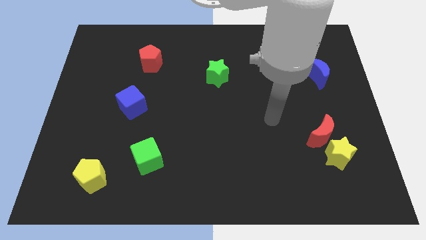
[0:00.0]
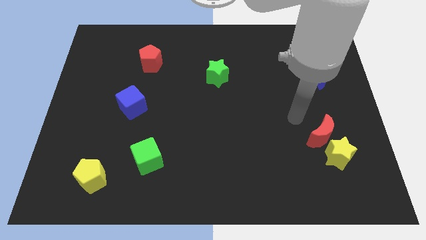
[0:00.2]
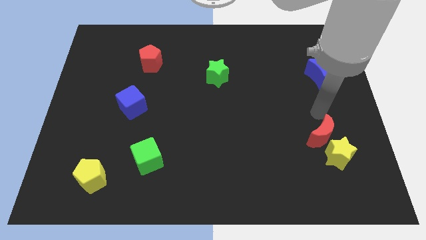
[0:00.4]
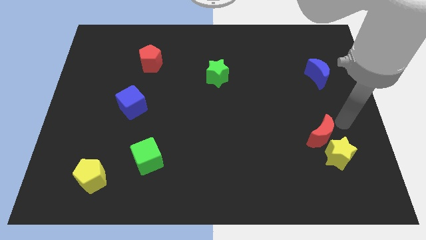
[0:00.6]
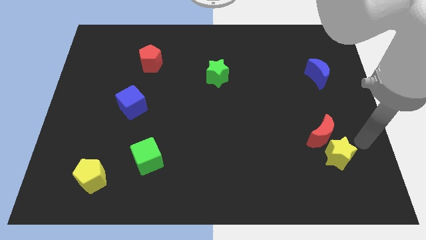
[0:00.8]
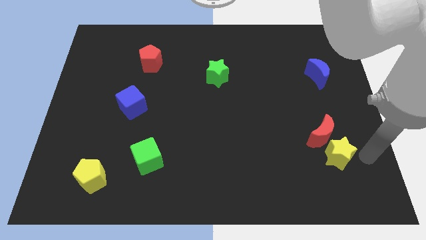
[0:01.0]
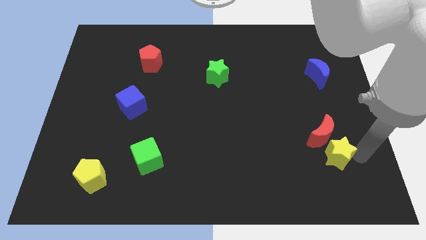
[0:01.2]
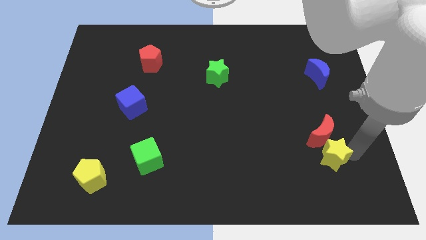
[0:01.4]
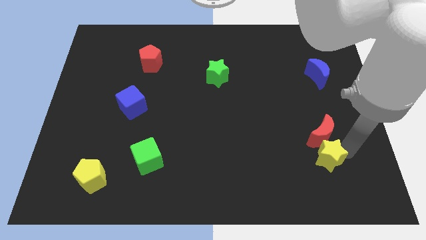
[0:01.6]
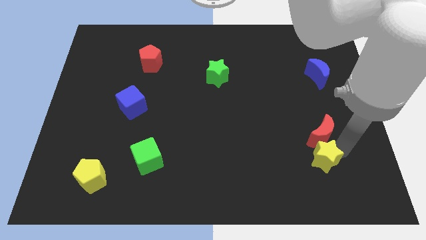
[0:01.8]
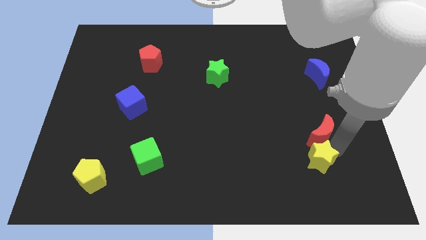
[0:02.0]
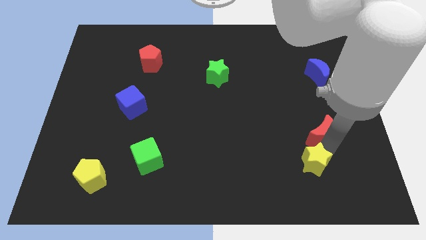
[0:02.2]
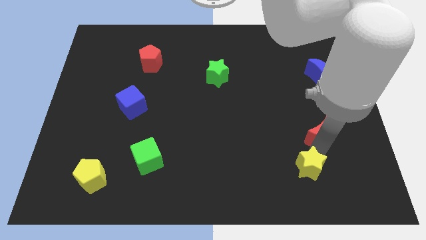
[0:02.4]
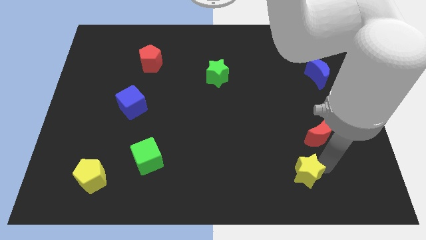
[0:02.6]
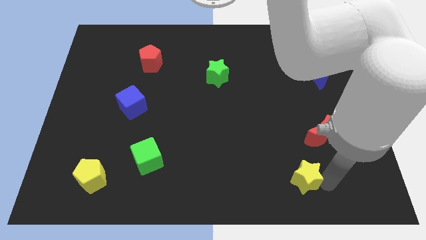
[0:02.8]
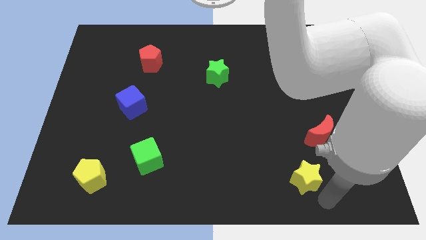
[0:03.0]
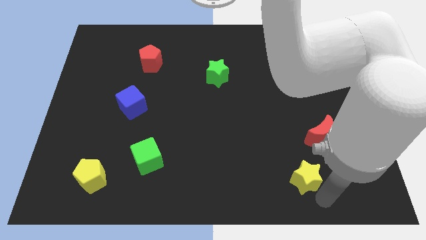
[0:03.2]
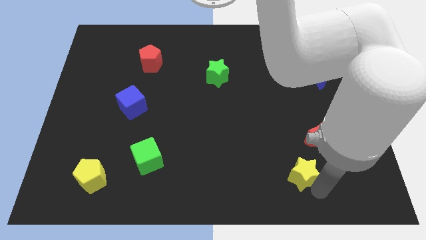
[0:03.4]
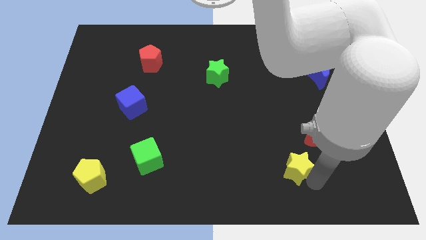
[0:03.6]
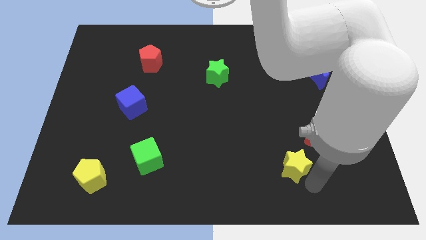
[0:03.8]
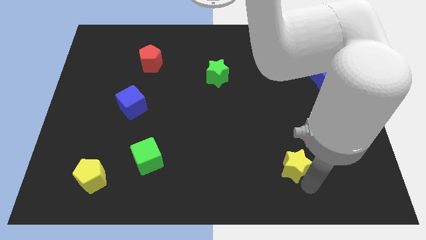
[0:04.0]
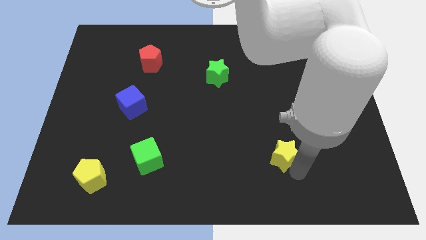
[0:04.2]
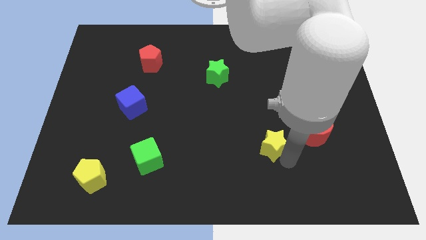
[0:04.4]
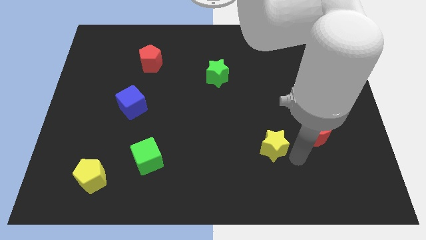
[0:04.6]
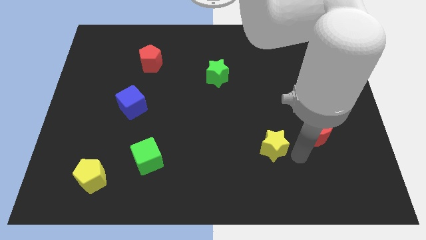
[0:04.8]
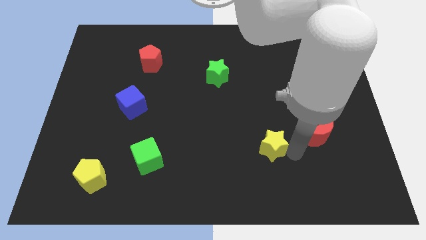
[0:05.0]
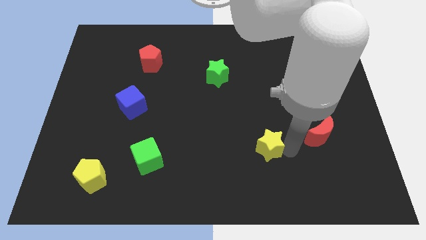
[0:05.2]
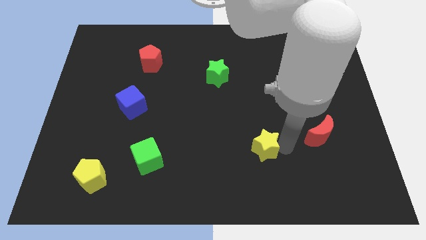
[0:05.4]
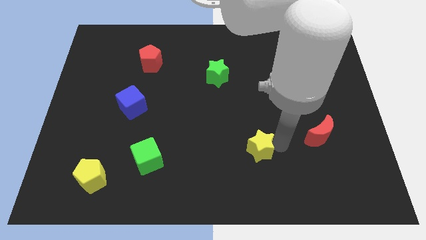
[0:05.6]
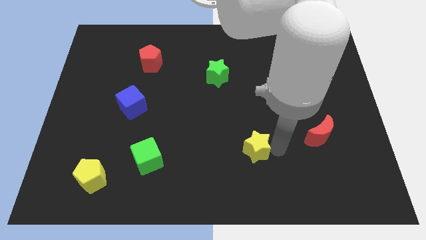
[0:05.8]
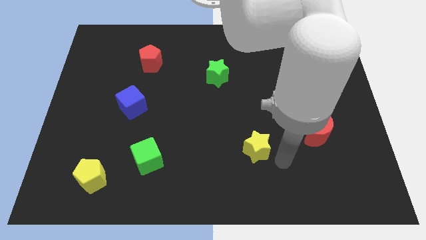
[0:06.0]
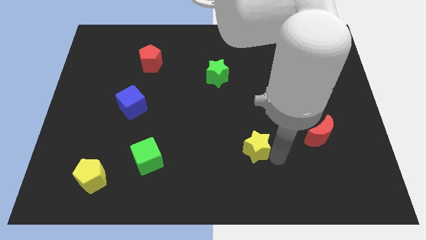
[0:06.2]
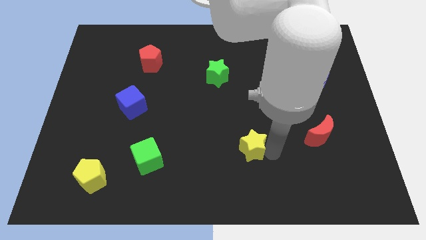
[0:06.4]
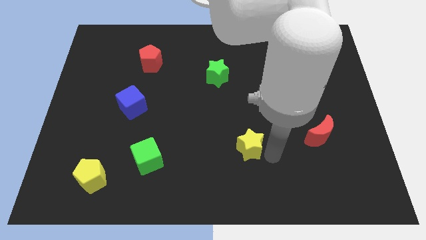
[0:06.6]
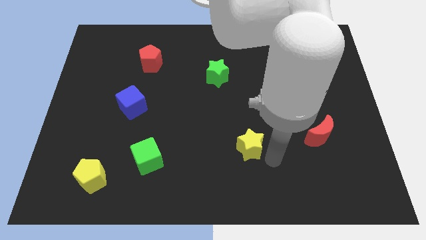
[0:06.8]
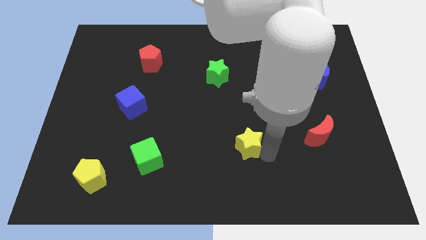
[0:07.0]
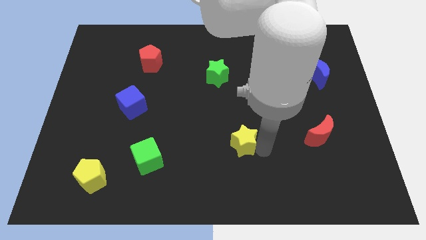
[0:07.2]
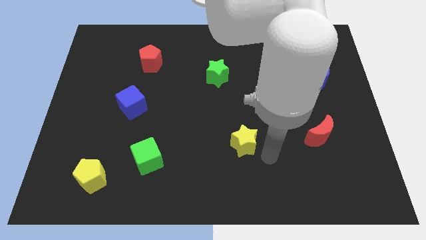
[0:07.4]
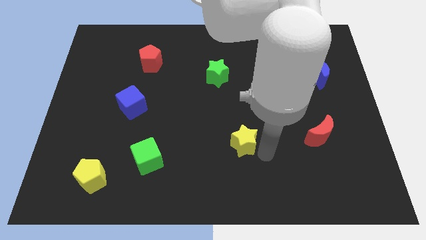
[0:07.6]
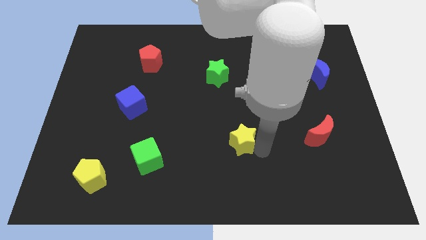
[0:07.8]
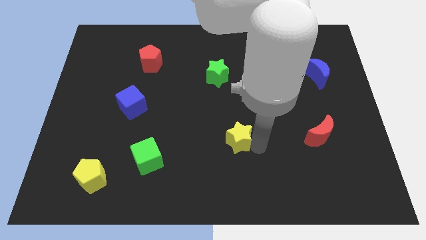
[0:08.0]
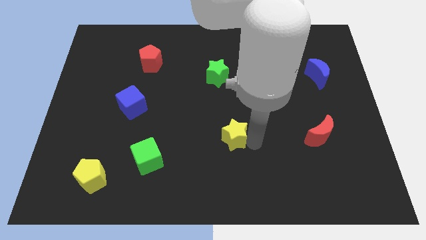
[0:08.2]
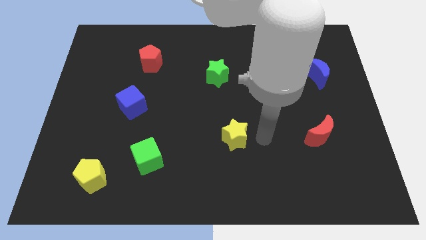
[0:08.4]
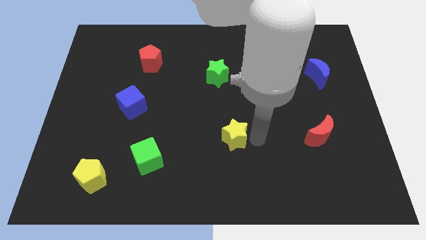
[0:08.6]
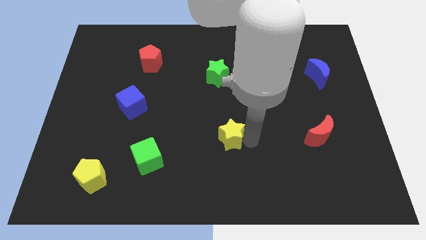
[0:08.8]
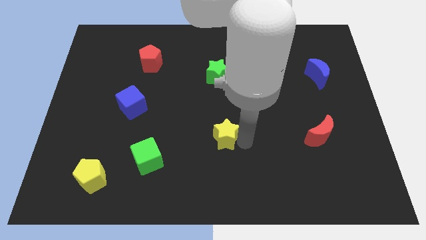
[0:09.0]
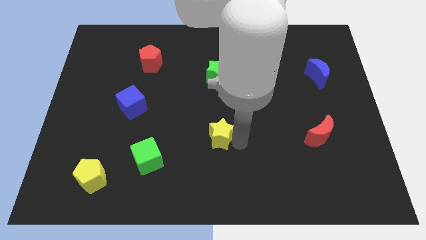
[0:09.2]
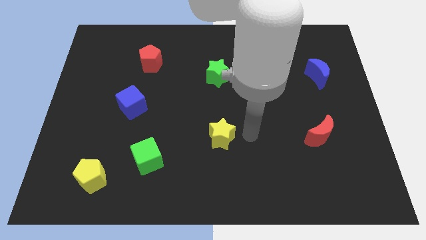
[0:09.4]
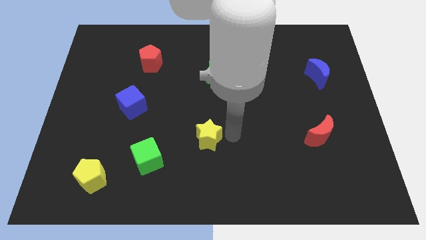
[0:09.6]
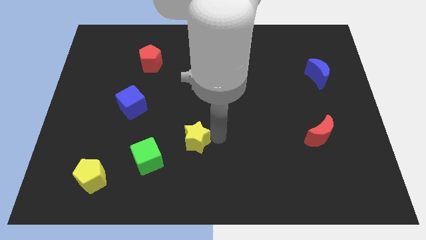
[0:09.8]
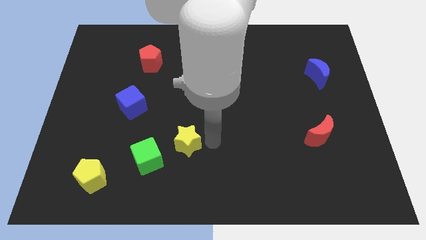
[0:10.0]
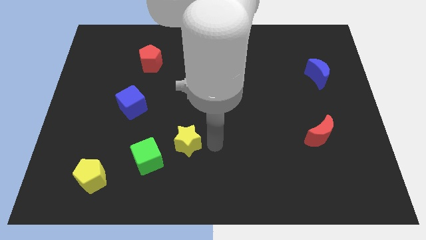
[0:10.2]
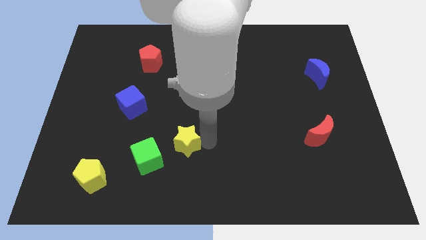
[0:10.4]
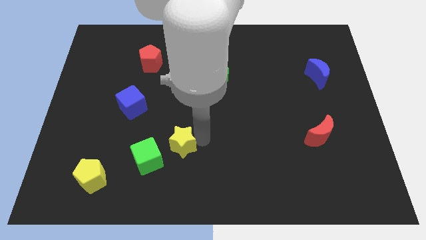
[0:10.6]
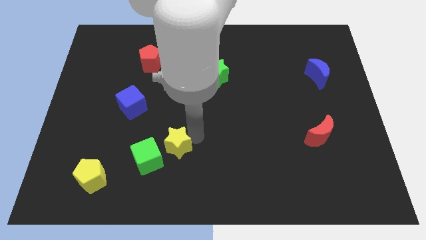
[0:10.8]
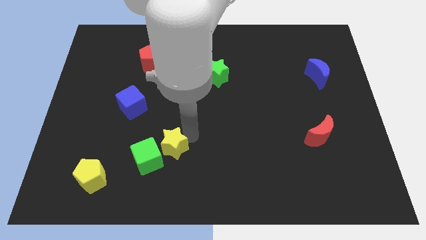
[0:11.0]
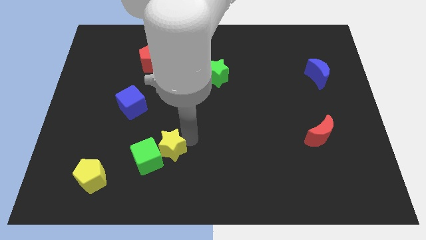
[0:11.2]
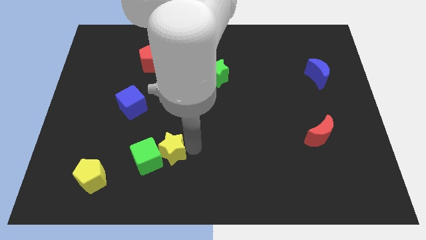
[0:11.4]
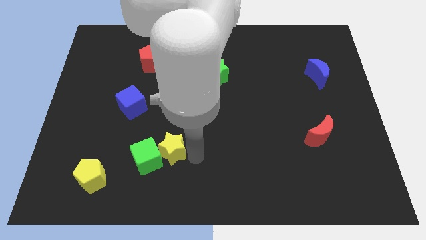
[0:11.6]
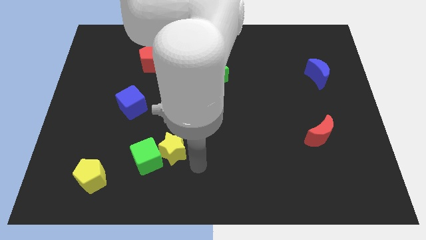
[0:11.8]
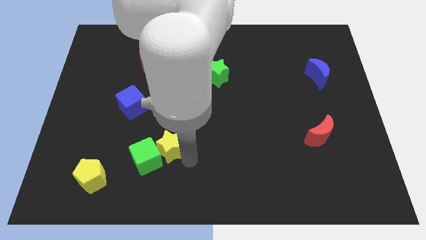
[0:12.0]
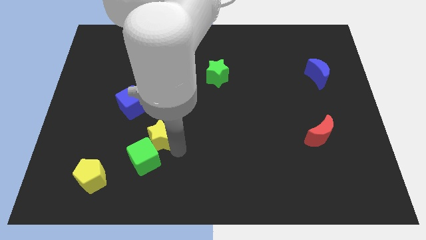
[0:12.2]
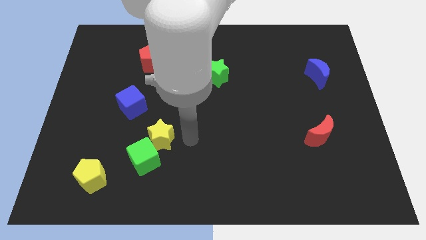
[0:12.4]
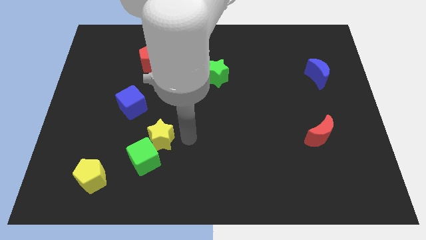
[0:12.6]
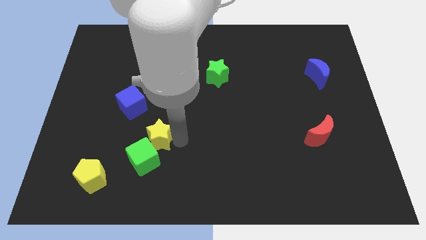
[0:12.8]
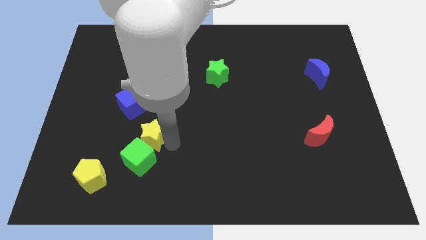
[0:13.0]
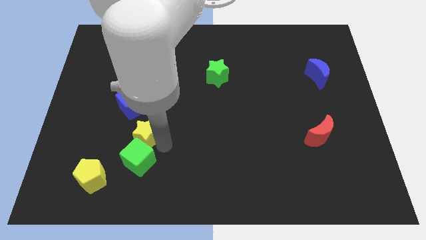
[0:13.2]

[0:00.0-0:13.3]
move the yellow star diagonally up and to the left of the green cube

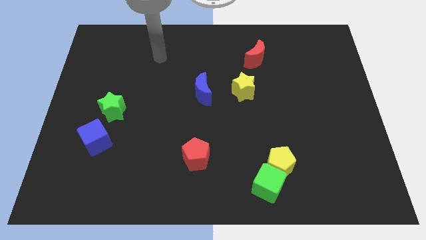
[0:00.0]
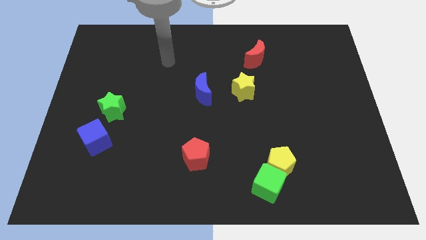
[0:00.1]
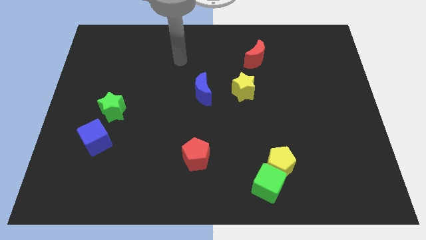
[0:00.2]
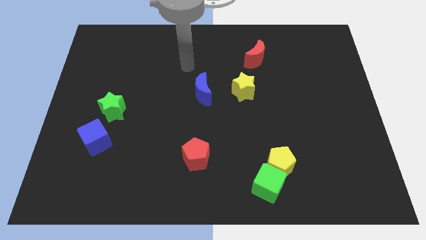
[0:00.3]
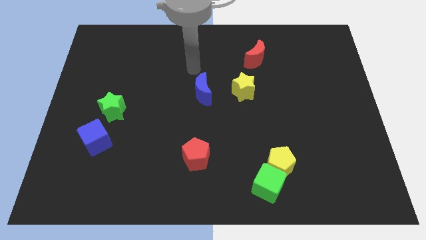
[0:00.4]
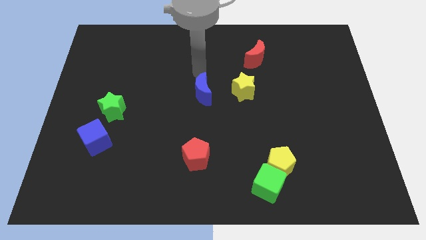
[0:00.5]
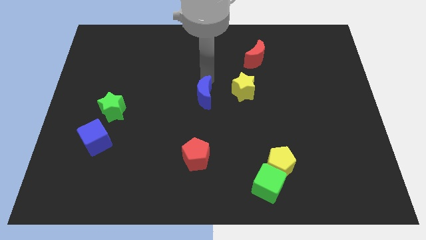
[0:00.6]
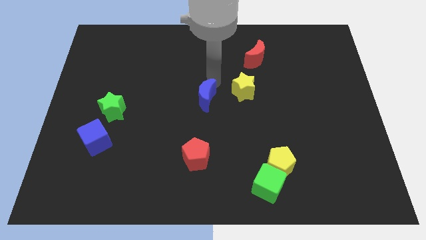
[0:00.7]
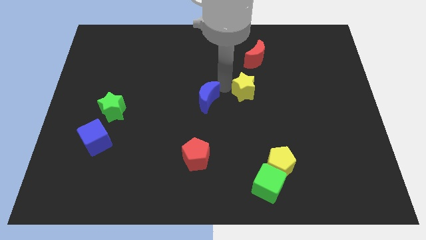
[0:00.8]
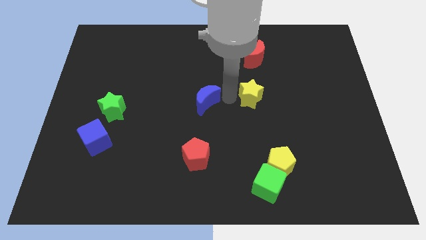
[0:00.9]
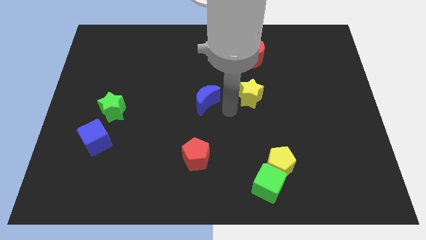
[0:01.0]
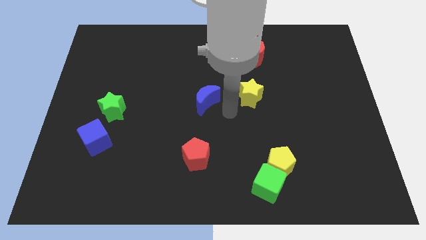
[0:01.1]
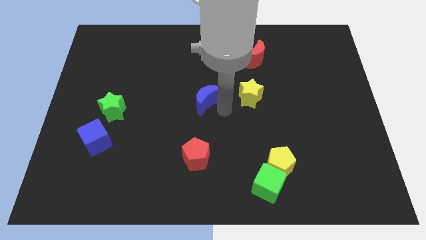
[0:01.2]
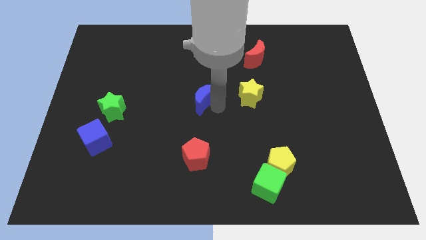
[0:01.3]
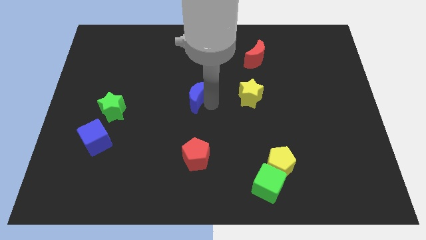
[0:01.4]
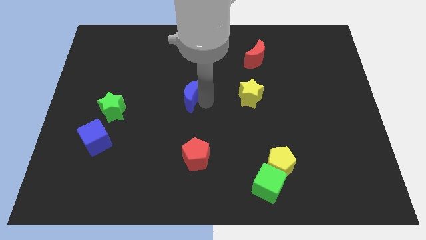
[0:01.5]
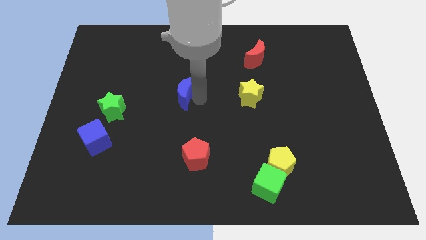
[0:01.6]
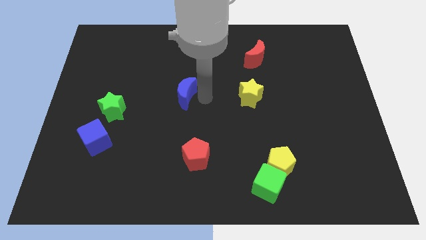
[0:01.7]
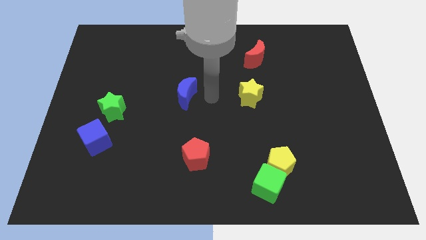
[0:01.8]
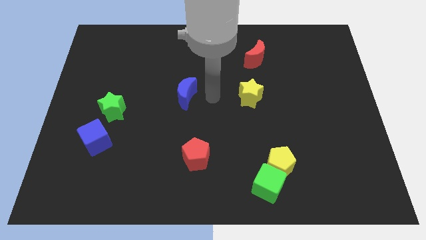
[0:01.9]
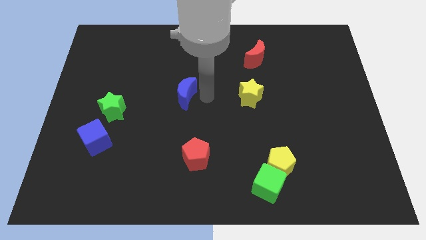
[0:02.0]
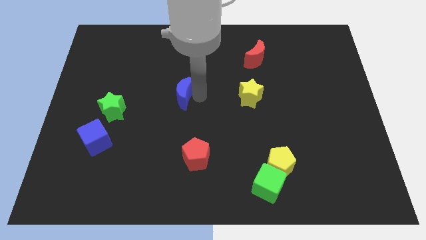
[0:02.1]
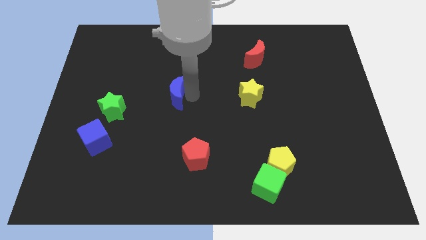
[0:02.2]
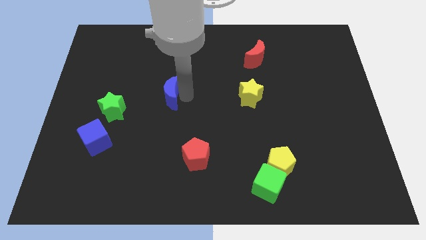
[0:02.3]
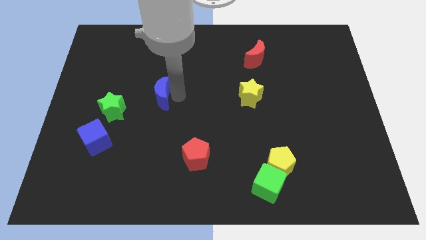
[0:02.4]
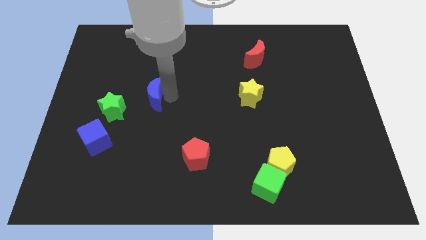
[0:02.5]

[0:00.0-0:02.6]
slide the blue moon diagonally up and to the right of the green star
